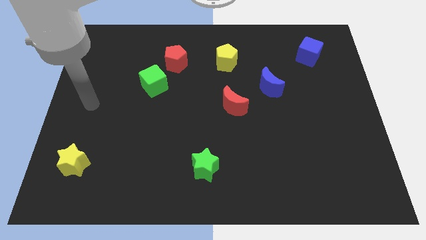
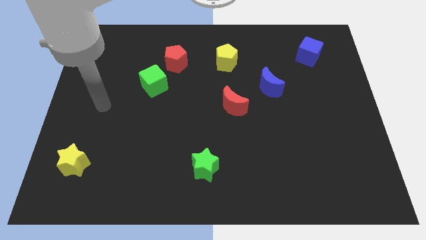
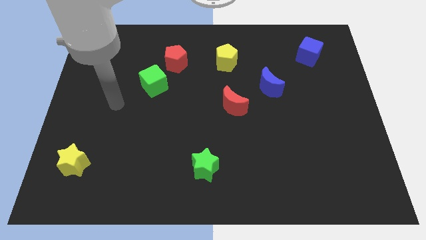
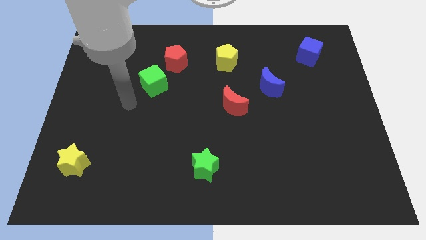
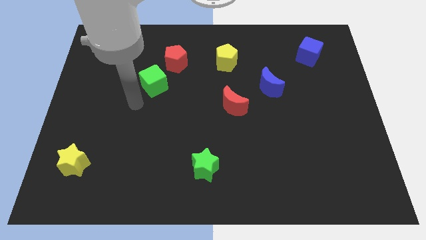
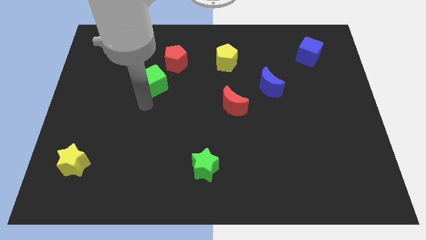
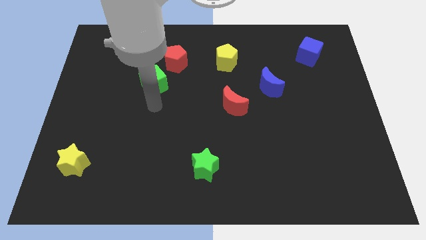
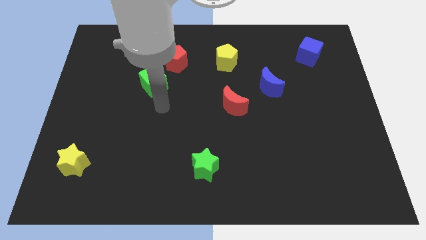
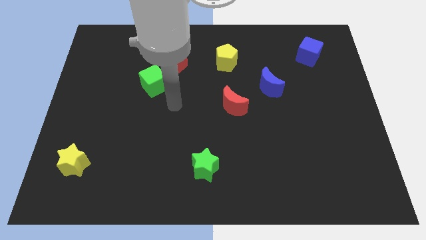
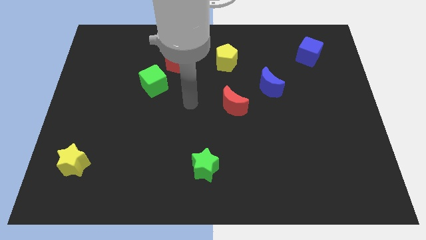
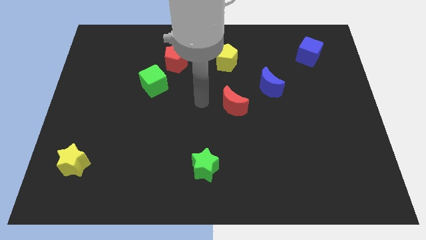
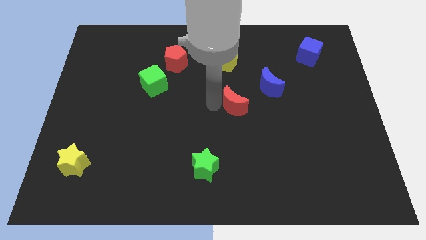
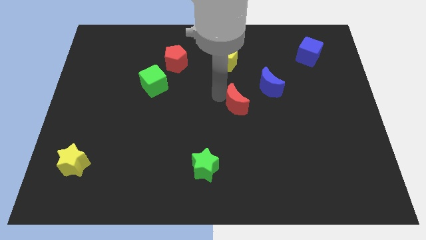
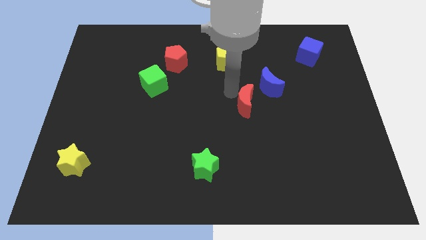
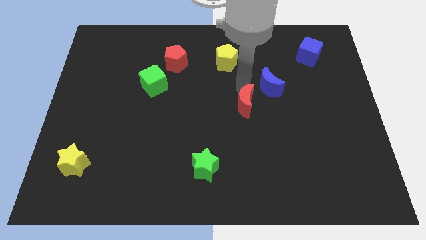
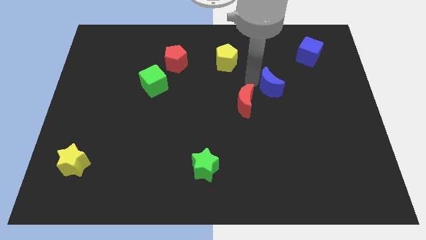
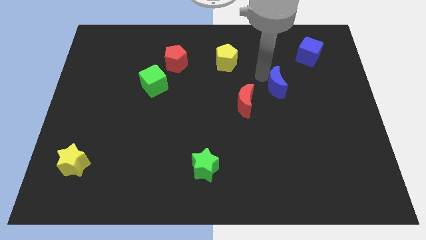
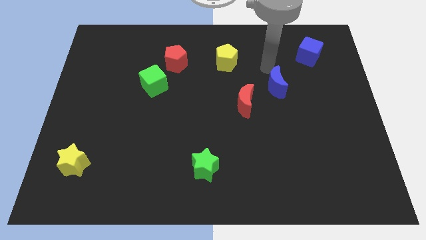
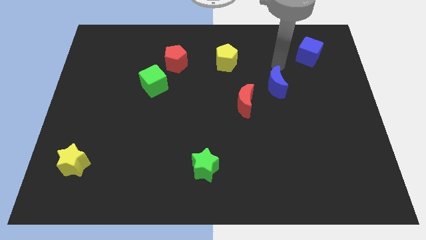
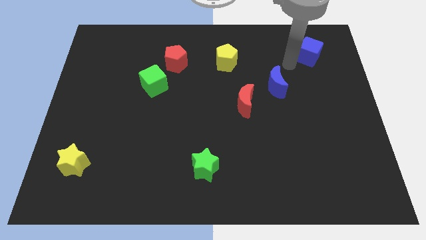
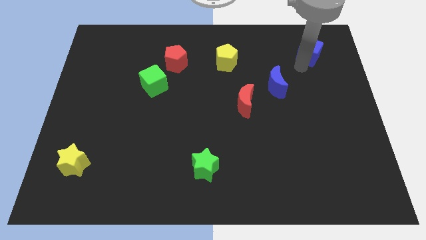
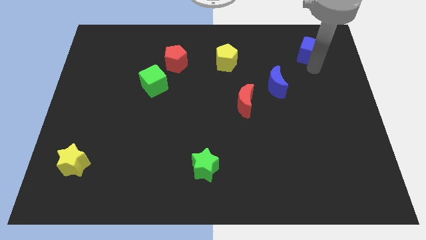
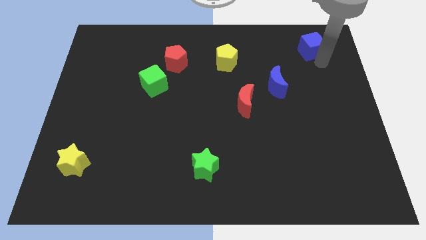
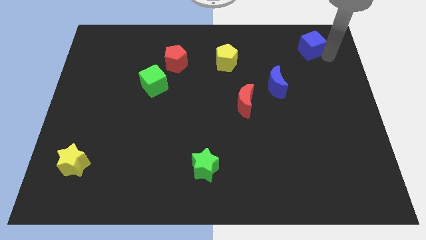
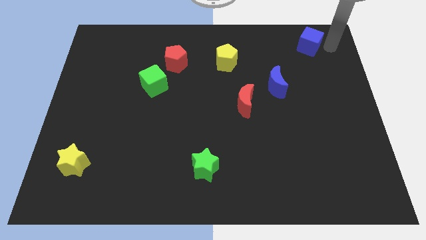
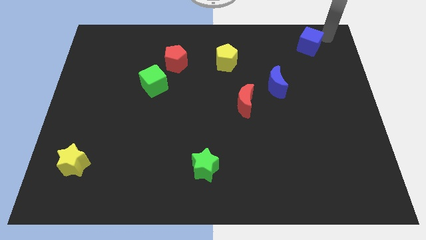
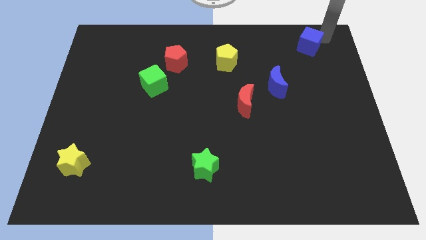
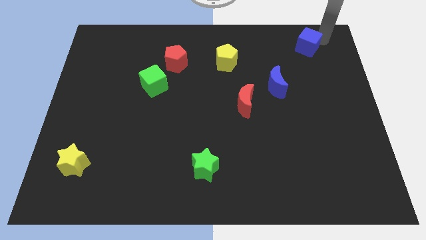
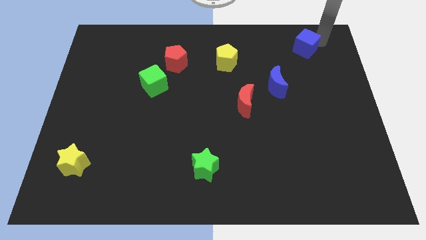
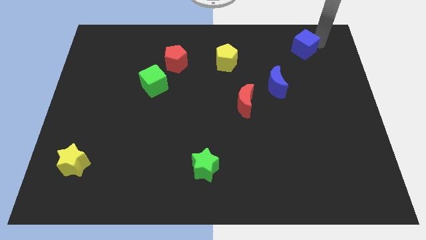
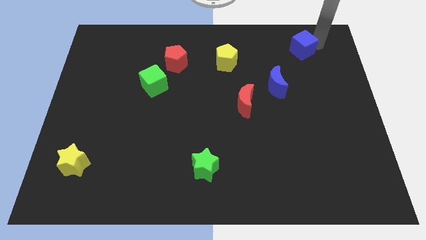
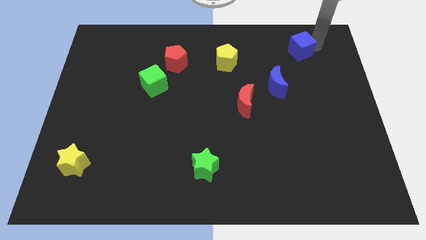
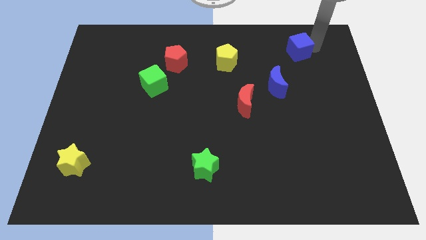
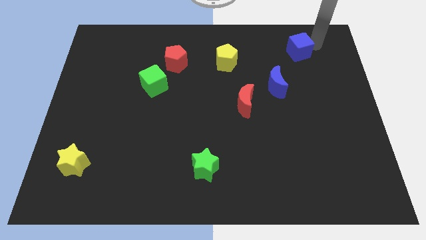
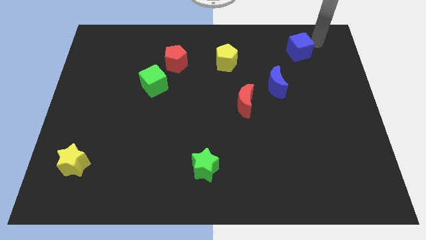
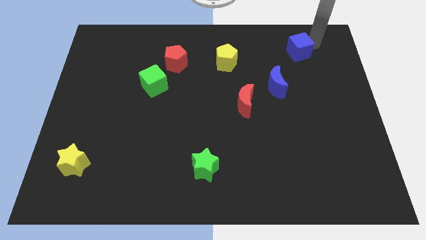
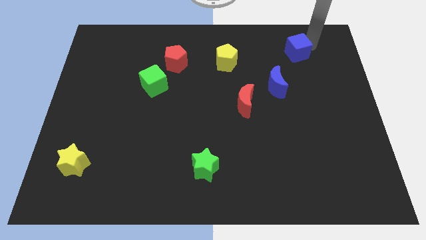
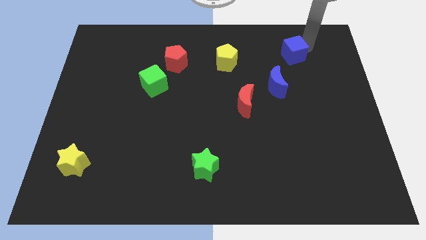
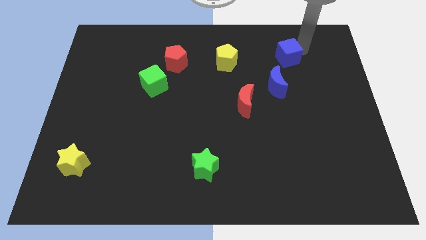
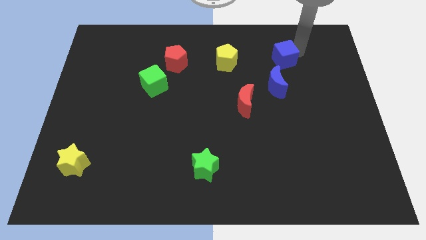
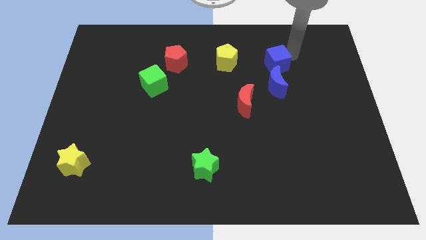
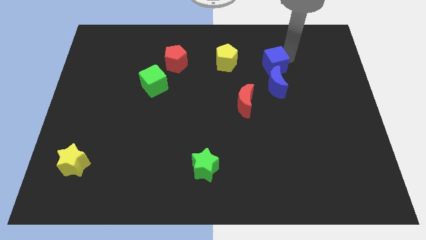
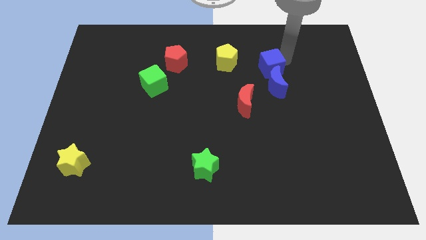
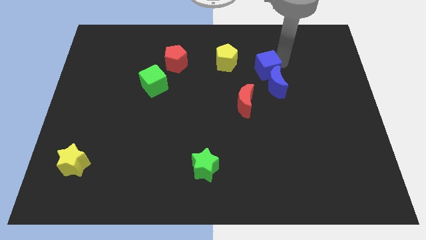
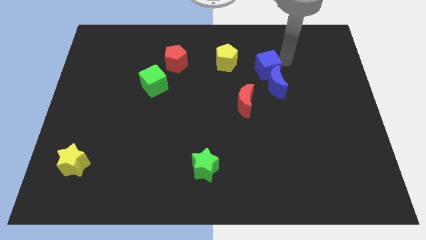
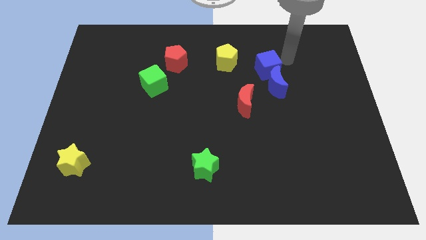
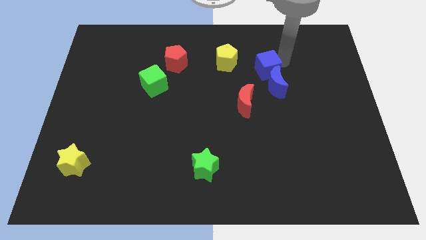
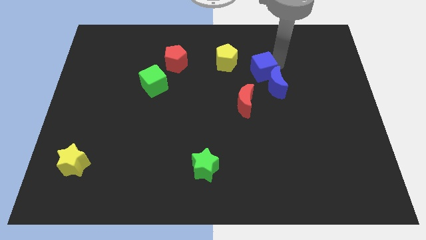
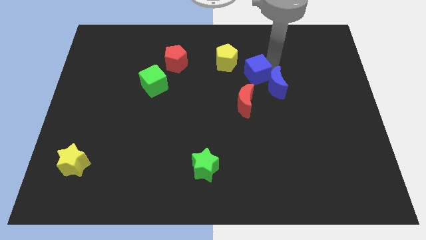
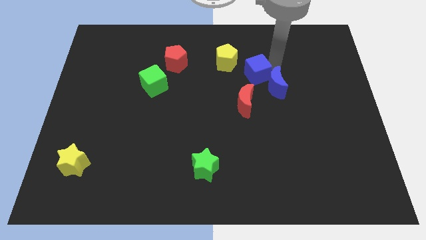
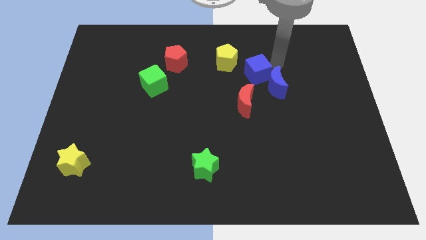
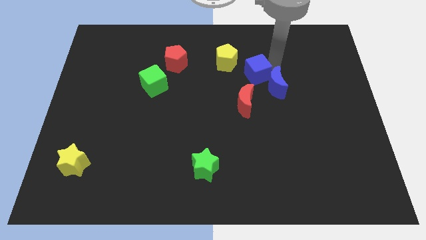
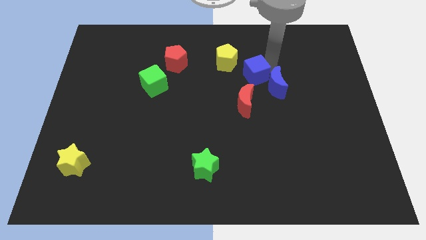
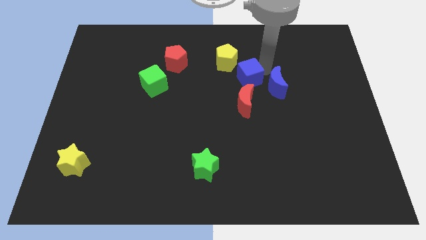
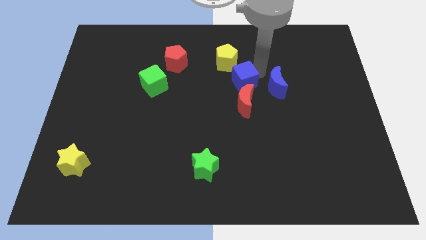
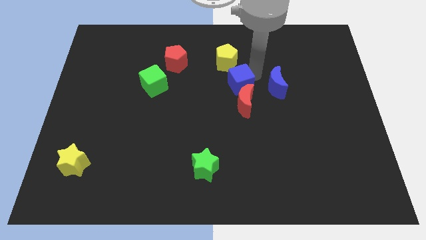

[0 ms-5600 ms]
put the blue cube to the top left of the red moon

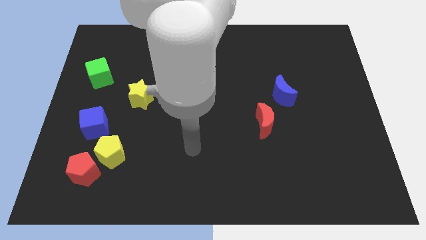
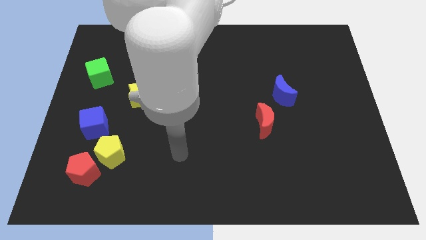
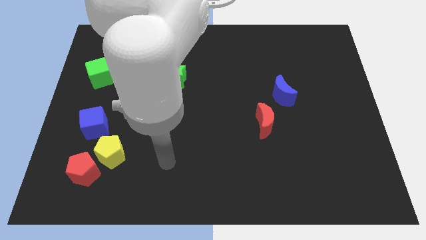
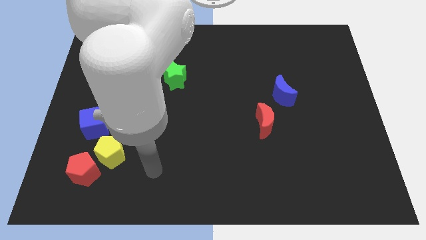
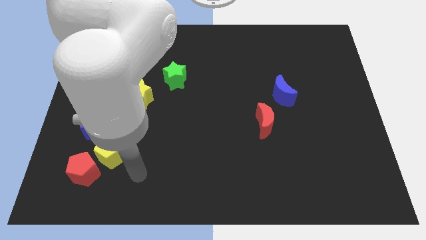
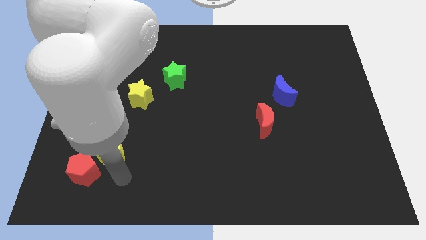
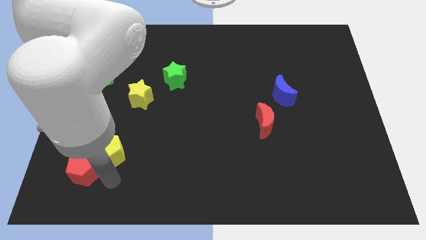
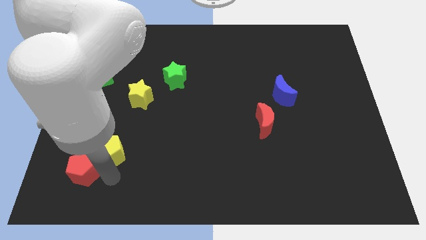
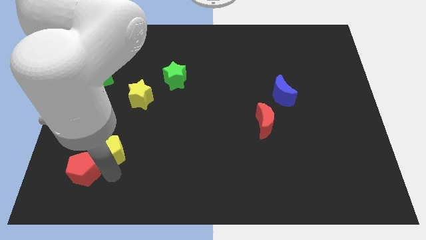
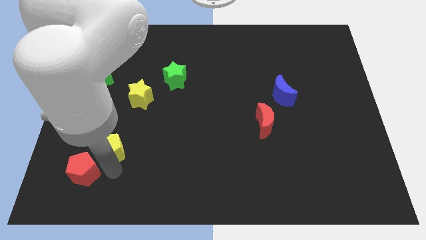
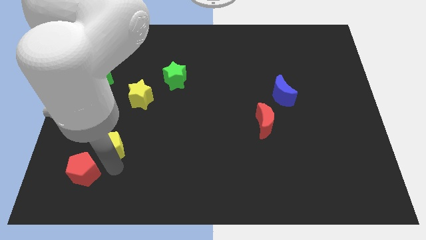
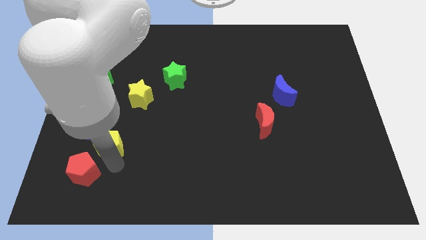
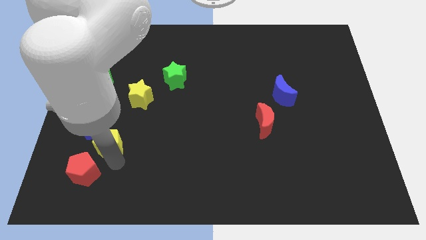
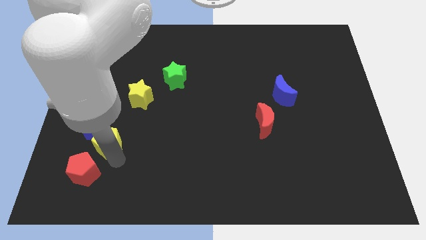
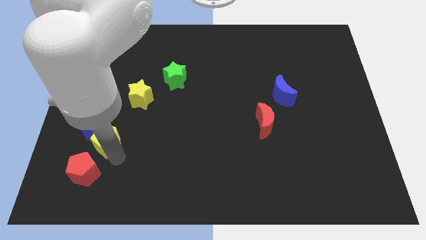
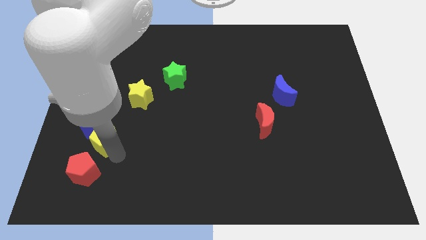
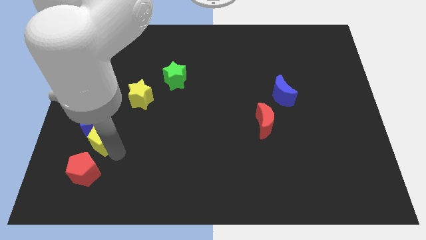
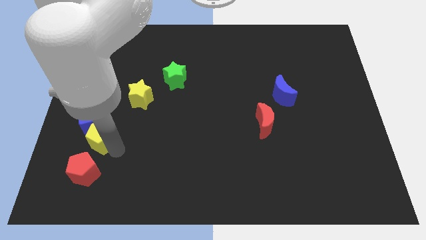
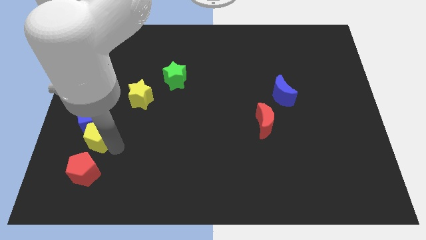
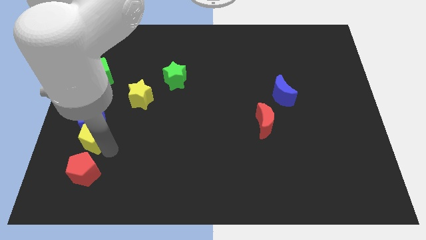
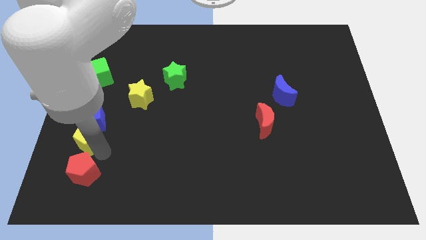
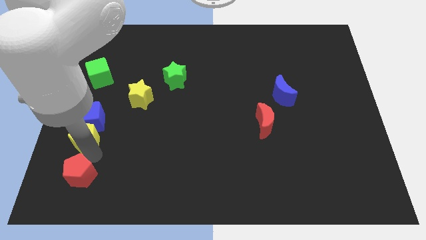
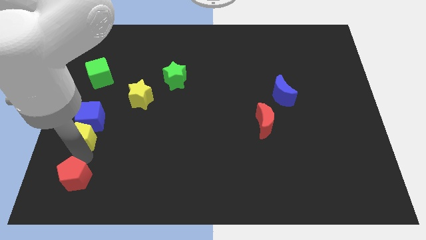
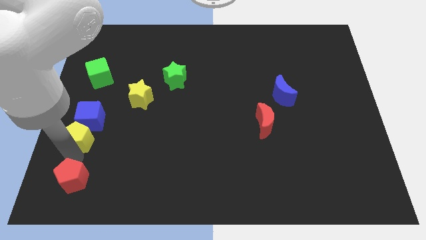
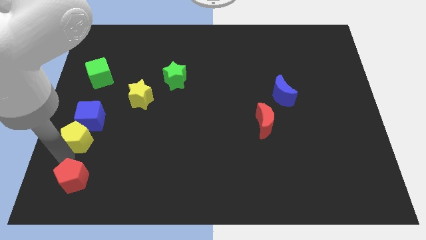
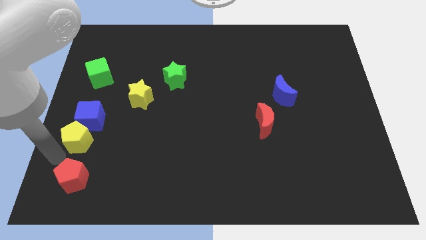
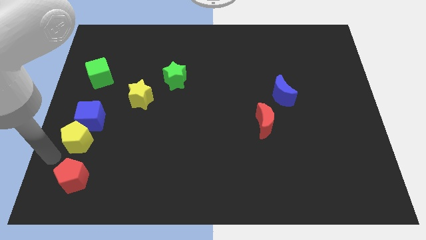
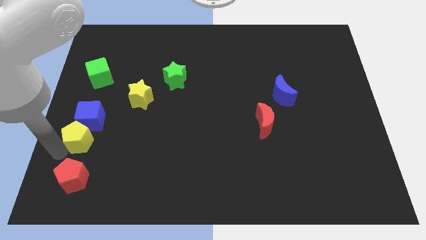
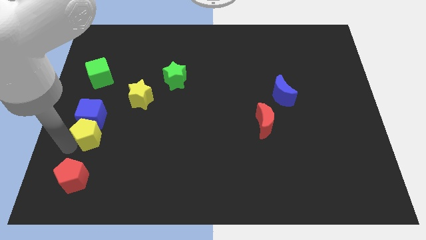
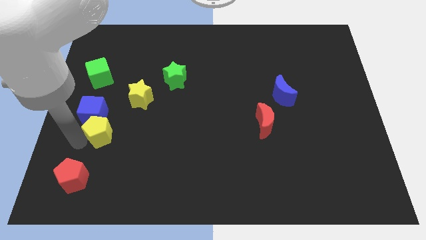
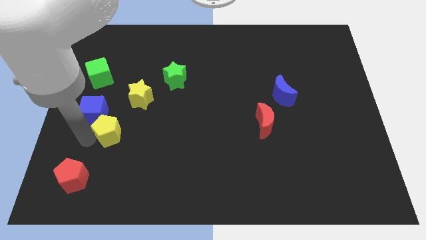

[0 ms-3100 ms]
put the yellow pentagon to the bottom left side of the yellow star
